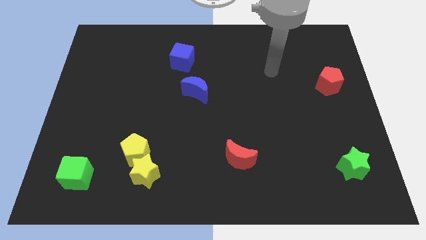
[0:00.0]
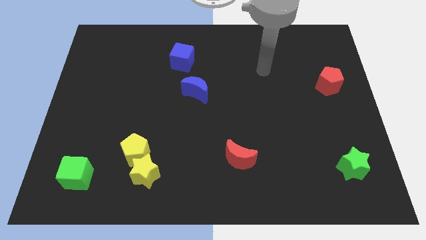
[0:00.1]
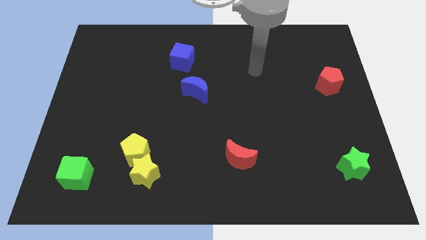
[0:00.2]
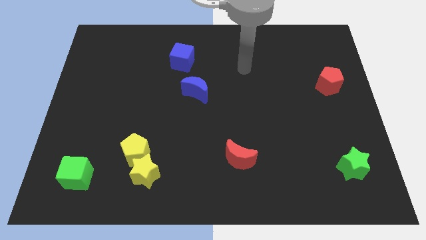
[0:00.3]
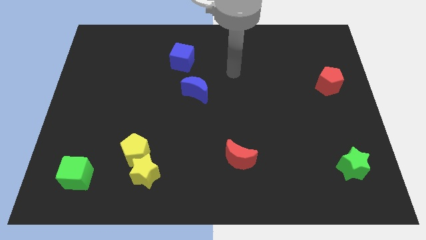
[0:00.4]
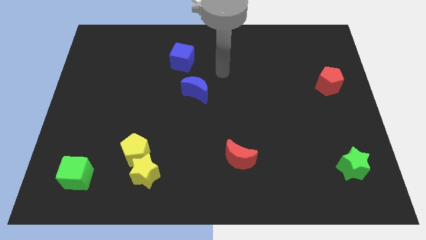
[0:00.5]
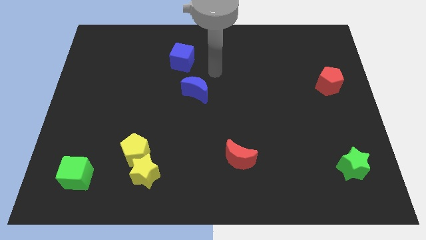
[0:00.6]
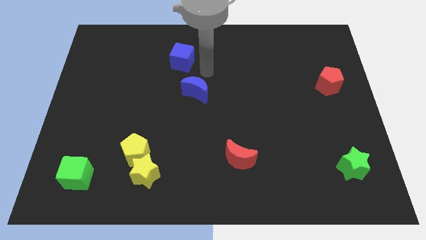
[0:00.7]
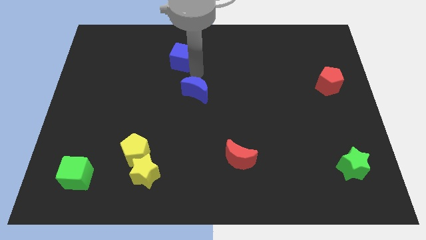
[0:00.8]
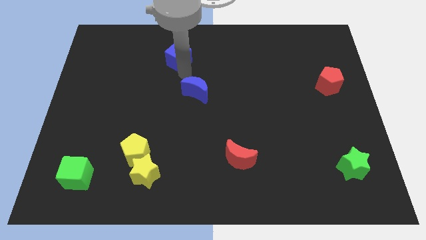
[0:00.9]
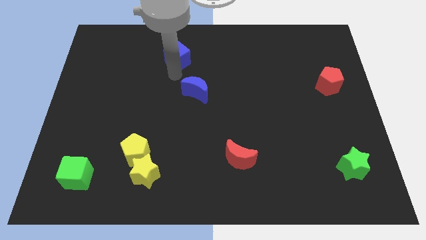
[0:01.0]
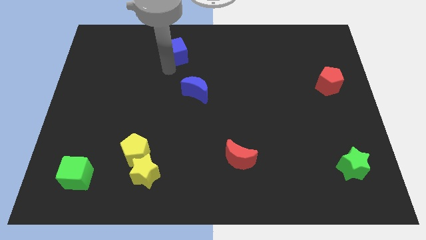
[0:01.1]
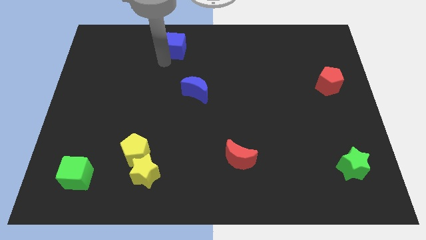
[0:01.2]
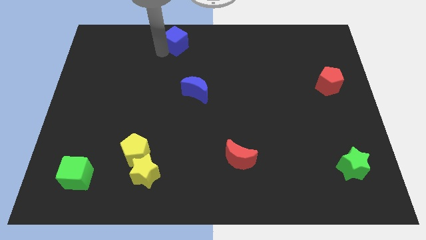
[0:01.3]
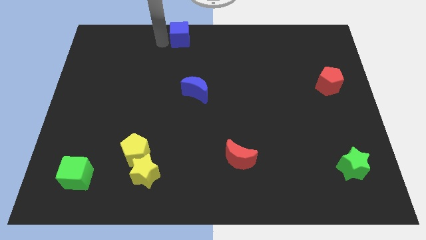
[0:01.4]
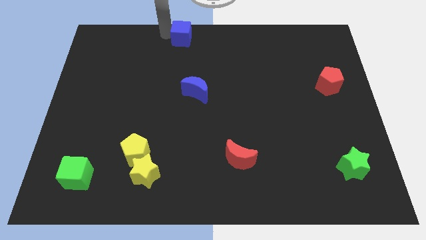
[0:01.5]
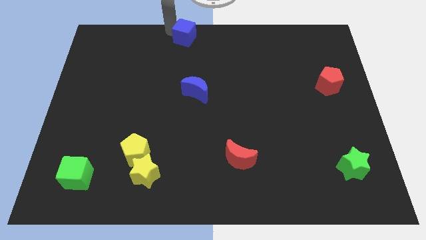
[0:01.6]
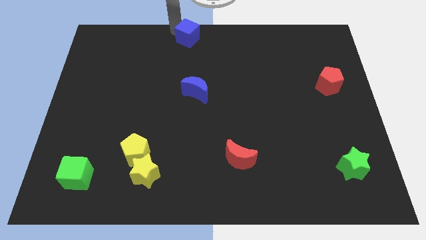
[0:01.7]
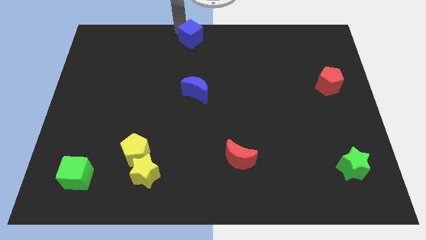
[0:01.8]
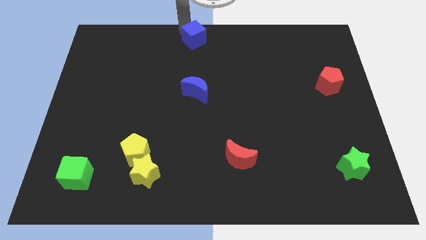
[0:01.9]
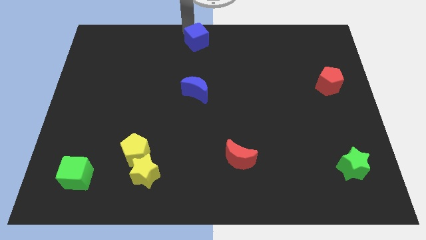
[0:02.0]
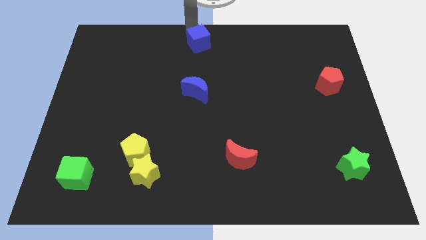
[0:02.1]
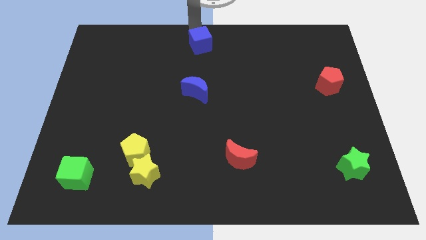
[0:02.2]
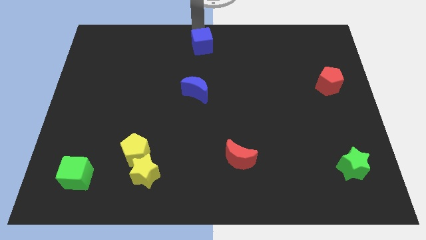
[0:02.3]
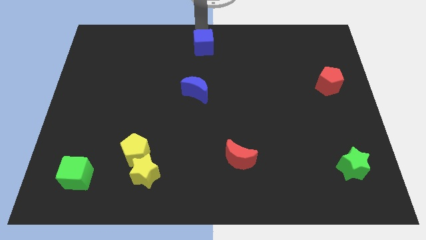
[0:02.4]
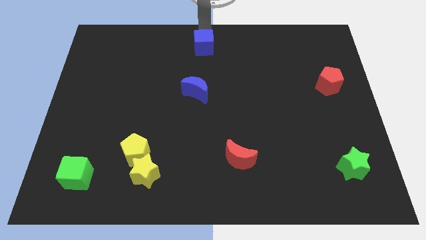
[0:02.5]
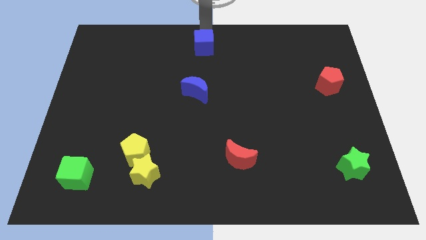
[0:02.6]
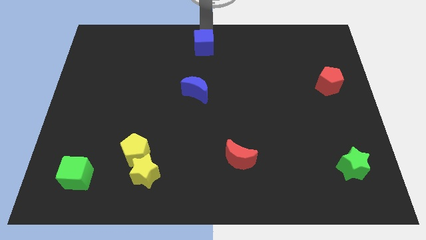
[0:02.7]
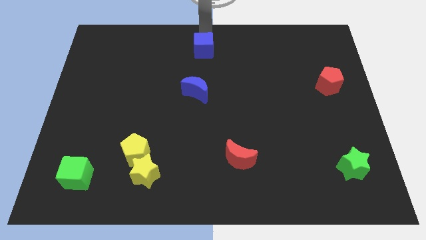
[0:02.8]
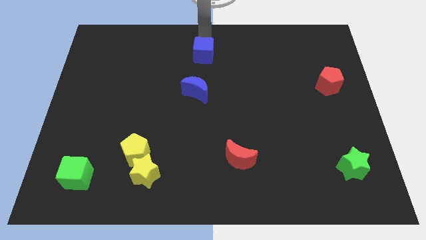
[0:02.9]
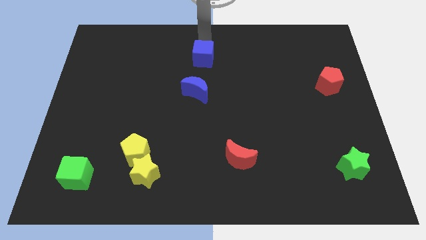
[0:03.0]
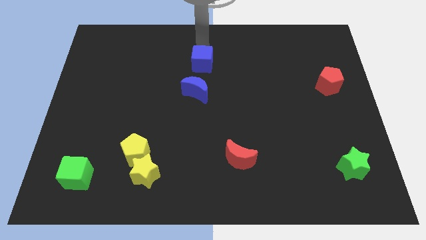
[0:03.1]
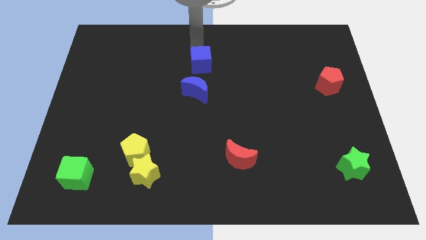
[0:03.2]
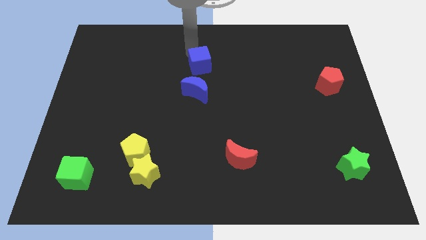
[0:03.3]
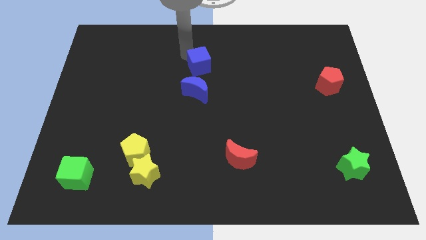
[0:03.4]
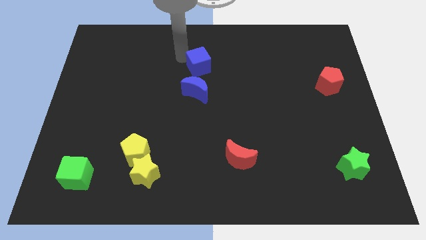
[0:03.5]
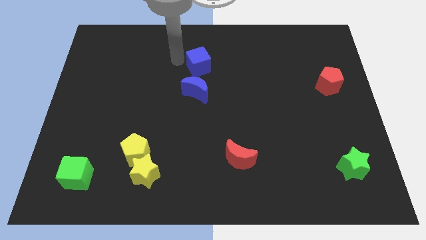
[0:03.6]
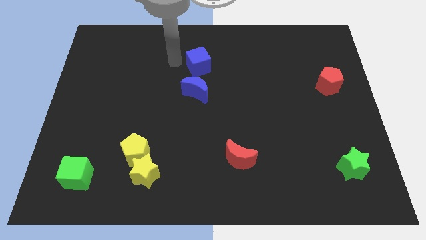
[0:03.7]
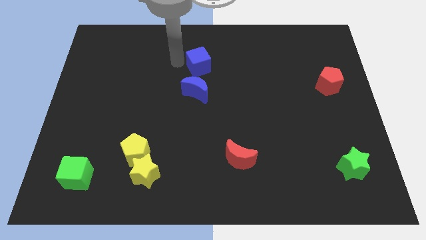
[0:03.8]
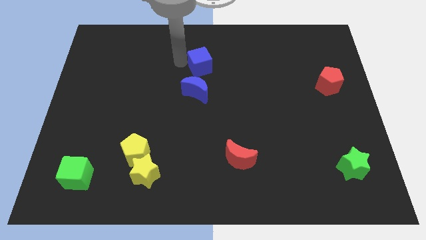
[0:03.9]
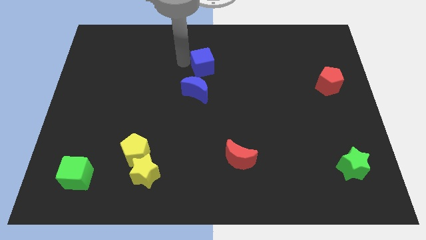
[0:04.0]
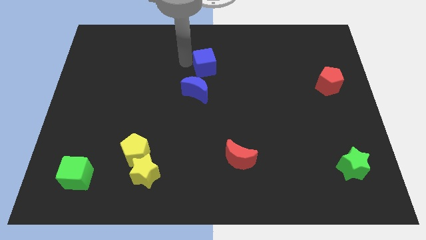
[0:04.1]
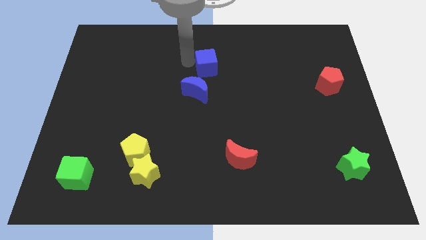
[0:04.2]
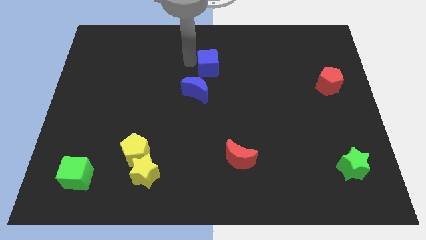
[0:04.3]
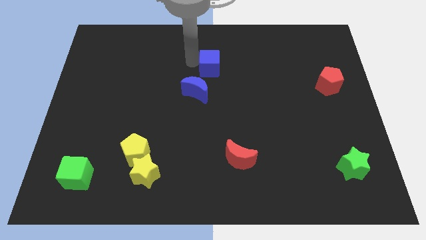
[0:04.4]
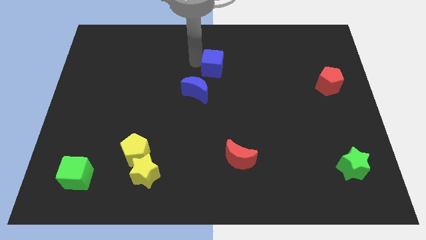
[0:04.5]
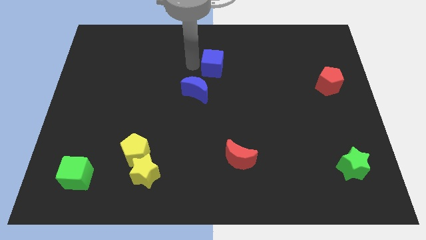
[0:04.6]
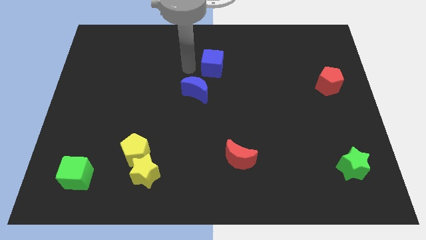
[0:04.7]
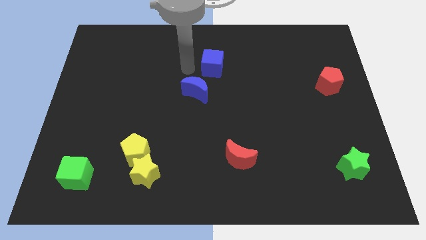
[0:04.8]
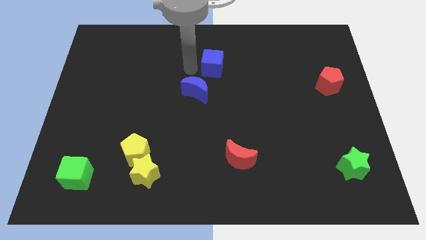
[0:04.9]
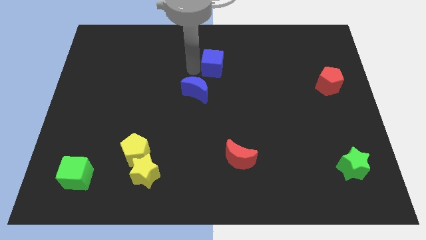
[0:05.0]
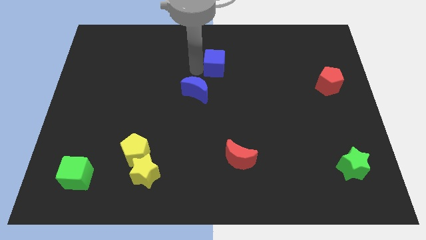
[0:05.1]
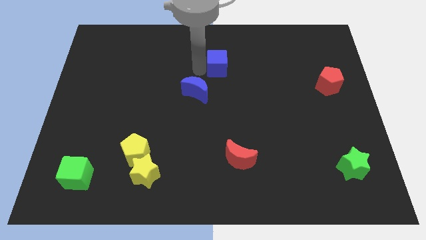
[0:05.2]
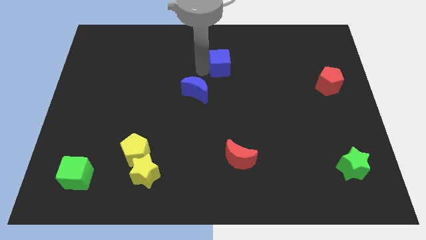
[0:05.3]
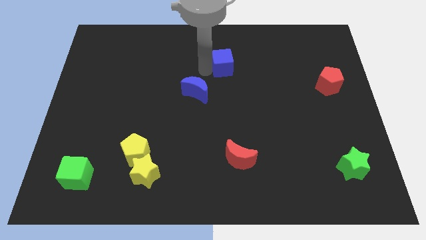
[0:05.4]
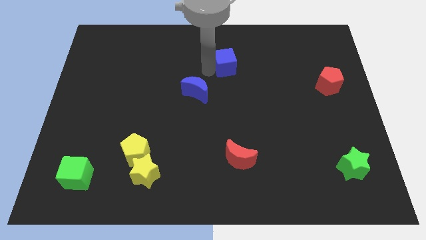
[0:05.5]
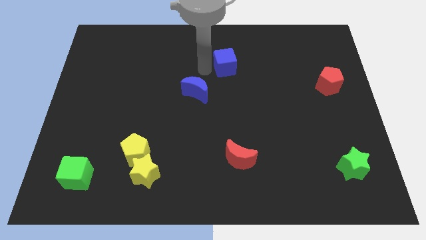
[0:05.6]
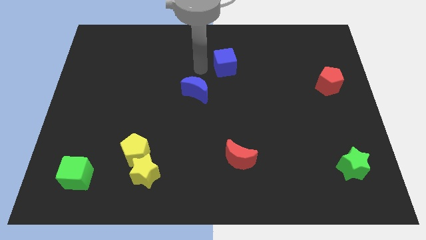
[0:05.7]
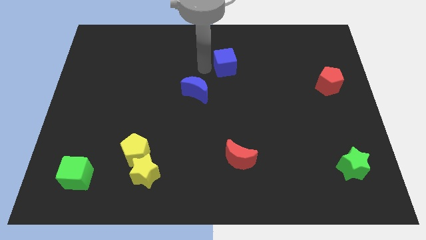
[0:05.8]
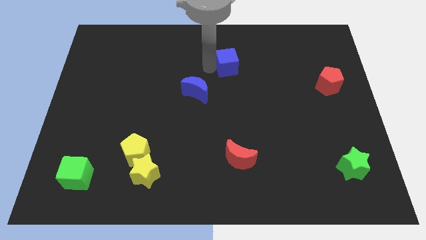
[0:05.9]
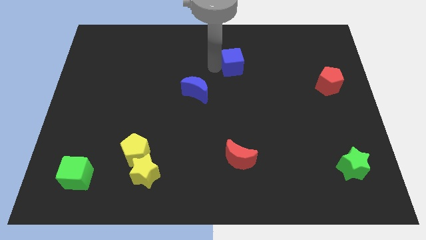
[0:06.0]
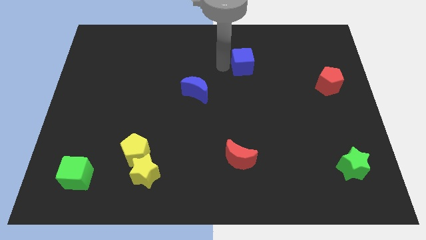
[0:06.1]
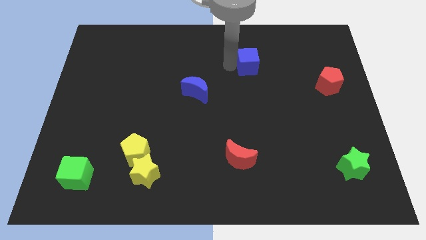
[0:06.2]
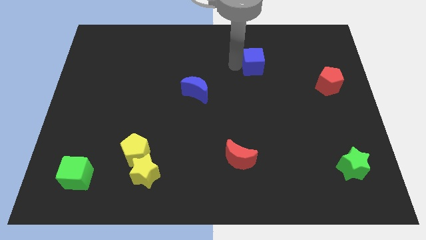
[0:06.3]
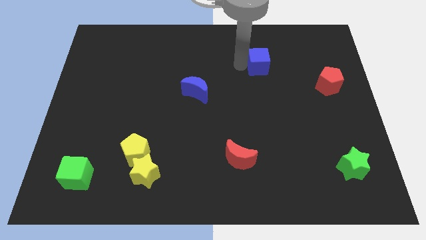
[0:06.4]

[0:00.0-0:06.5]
push the blue cube to the right

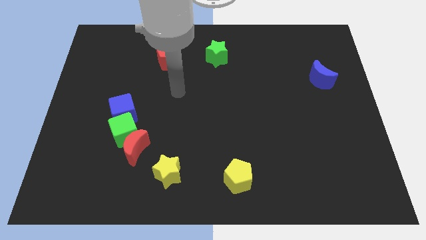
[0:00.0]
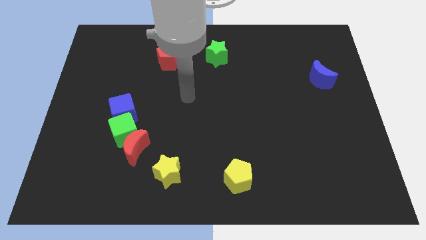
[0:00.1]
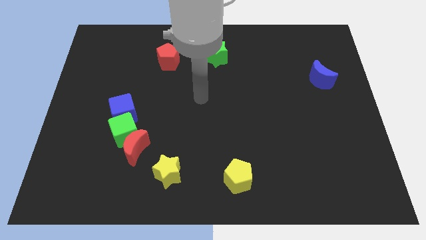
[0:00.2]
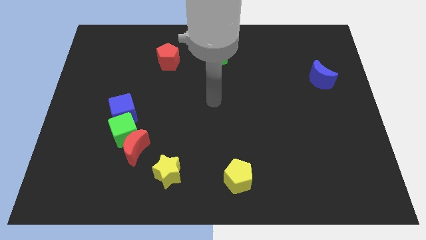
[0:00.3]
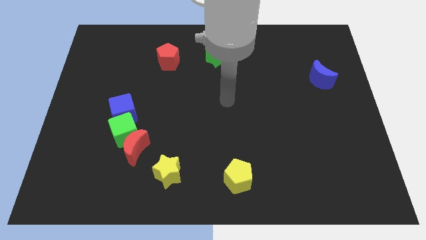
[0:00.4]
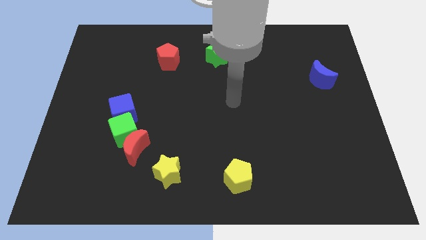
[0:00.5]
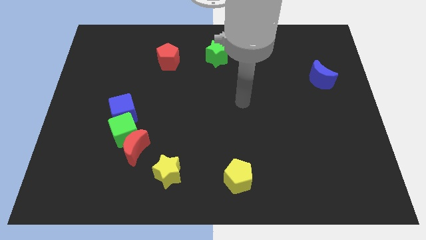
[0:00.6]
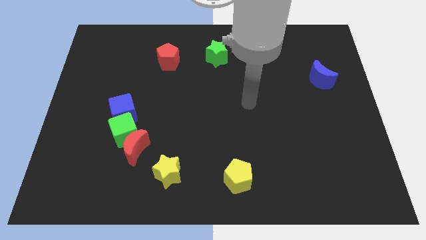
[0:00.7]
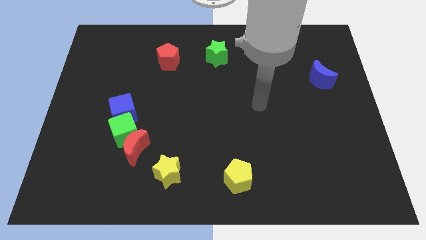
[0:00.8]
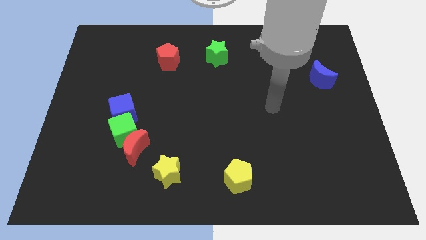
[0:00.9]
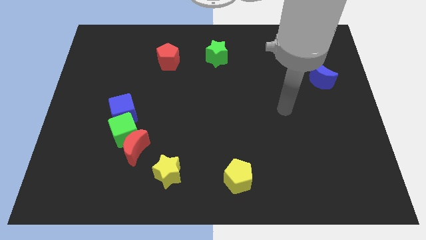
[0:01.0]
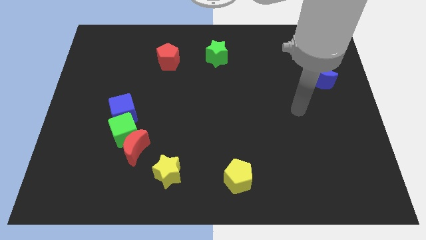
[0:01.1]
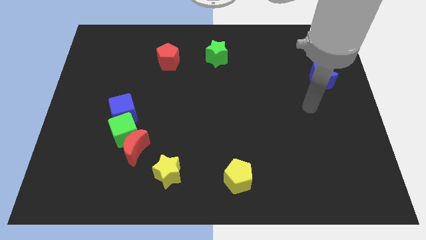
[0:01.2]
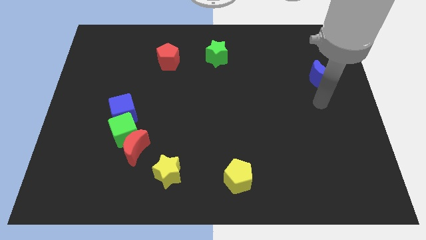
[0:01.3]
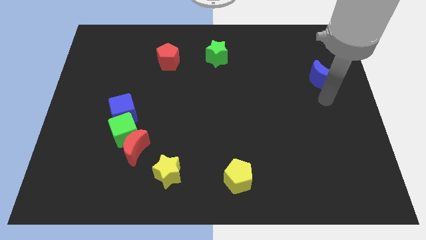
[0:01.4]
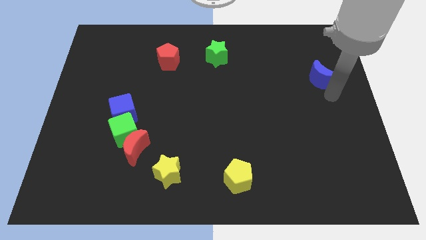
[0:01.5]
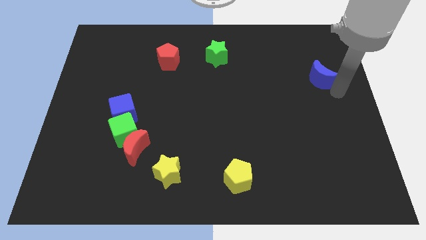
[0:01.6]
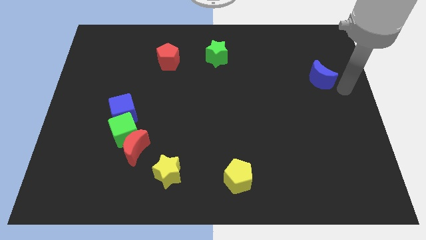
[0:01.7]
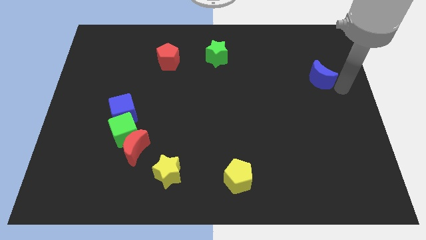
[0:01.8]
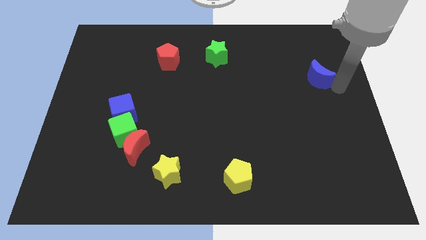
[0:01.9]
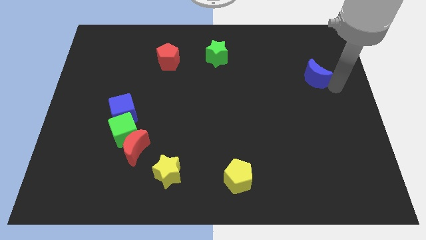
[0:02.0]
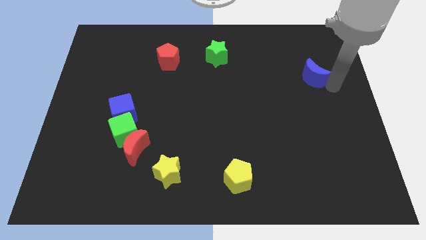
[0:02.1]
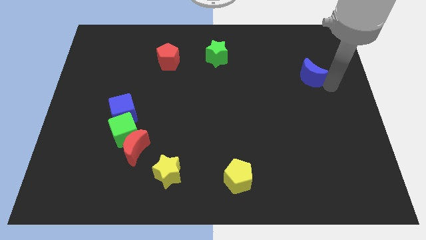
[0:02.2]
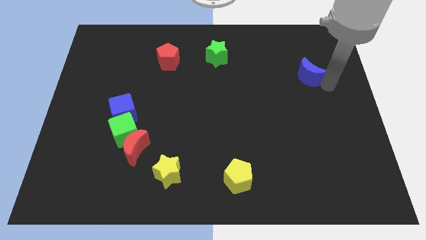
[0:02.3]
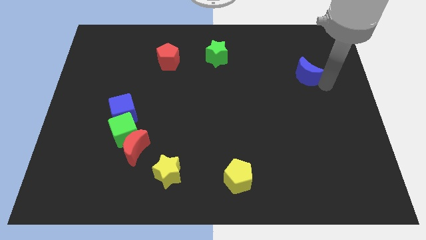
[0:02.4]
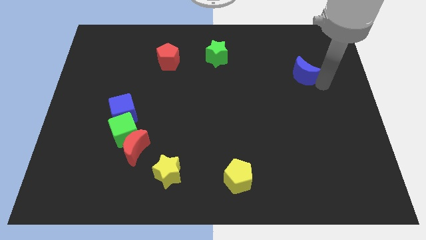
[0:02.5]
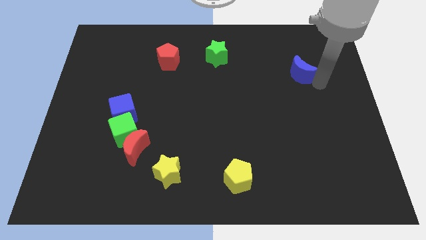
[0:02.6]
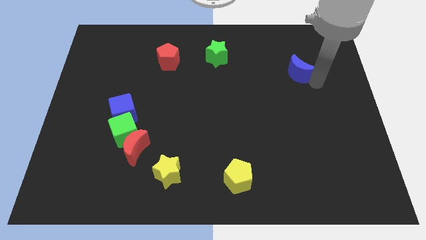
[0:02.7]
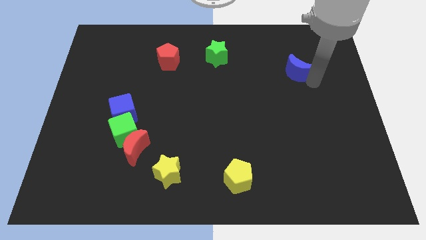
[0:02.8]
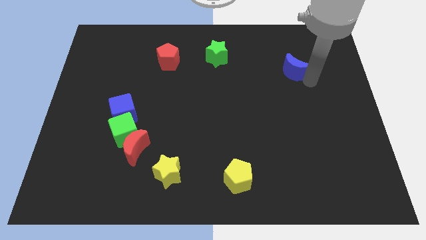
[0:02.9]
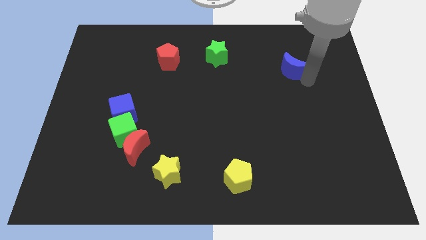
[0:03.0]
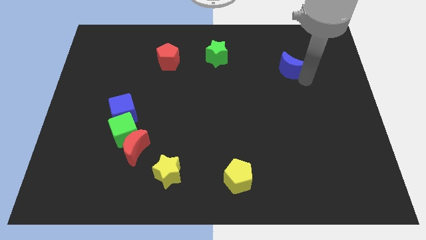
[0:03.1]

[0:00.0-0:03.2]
slightly move the blue moon to the left
